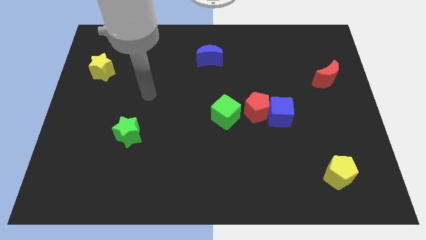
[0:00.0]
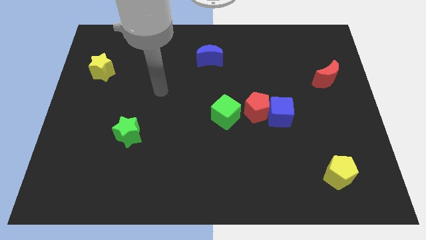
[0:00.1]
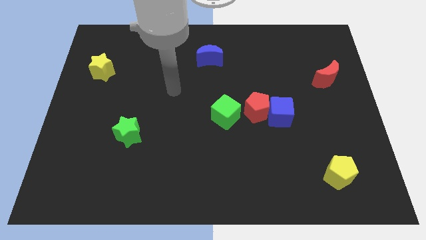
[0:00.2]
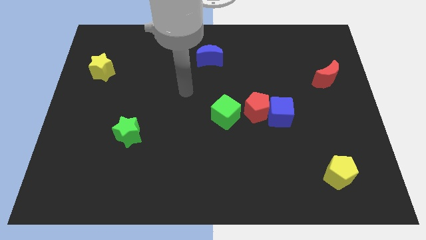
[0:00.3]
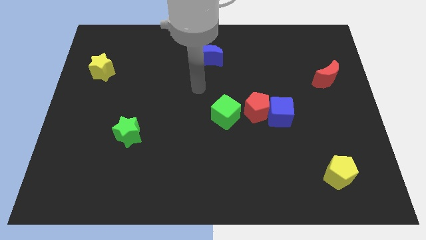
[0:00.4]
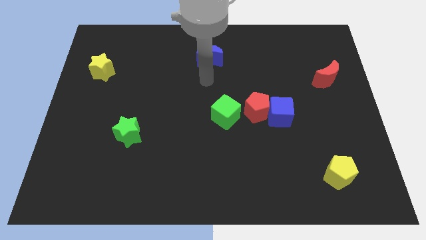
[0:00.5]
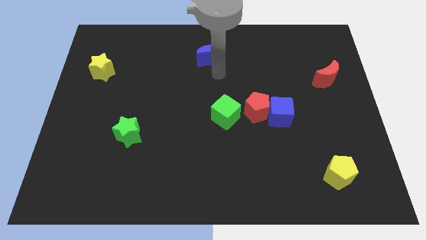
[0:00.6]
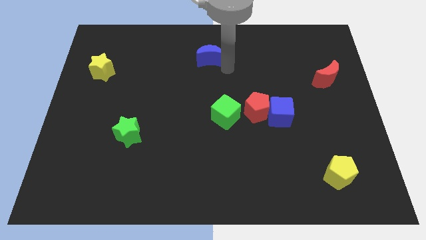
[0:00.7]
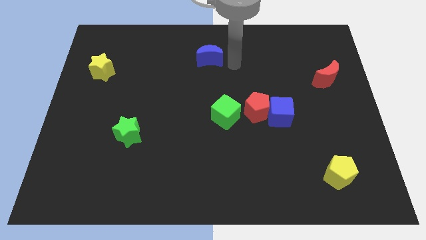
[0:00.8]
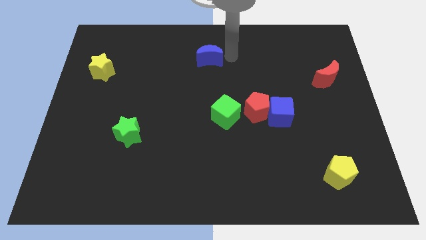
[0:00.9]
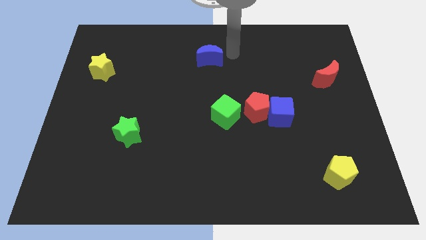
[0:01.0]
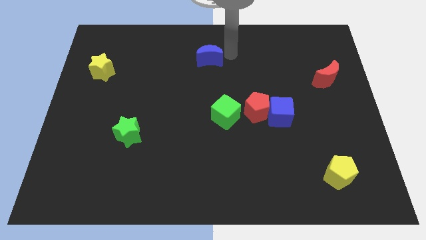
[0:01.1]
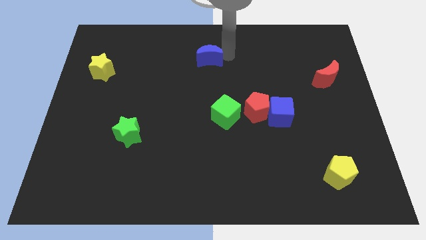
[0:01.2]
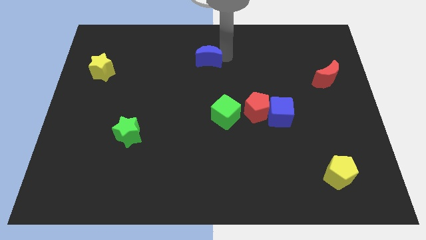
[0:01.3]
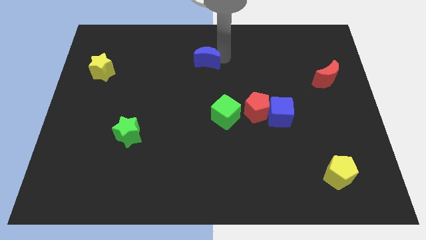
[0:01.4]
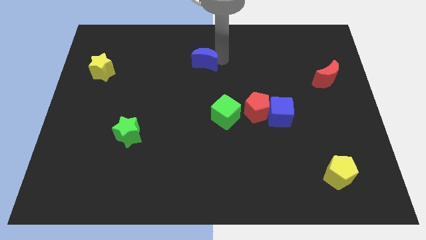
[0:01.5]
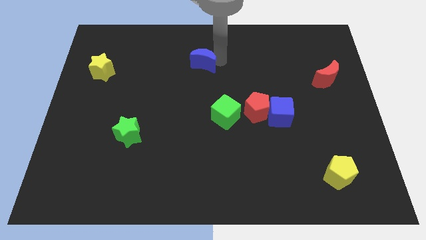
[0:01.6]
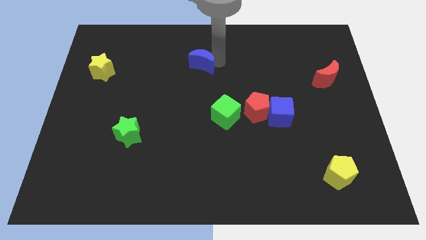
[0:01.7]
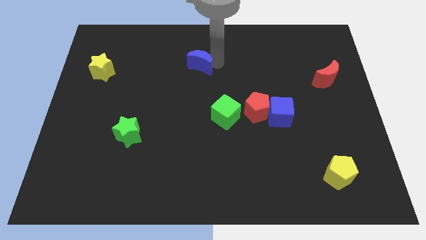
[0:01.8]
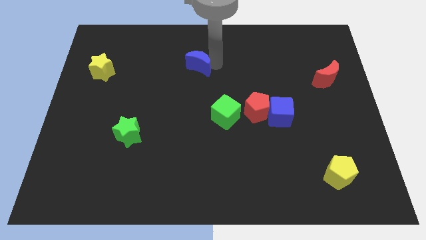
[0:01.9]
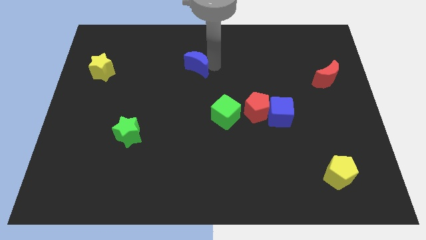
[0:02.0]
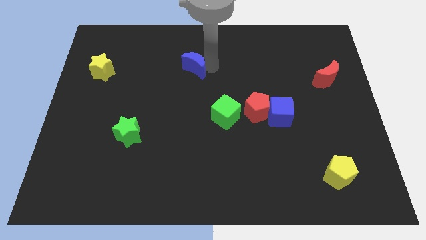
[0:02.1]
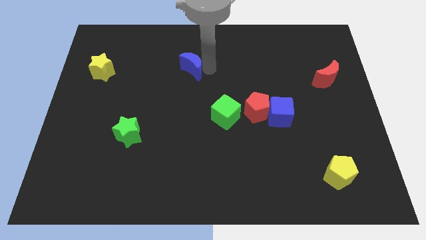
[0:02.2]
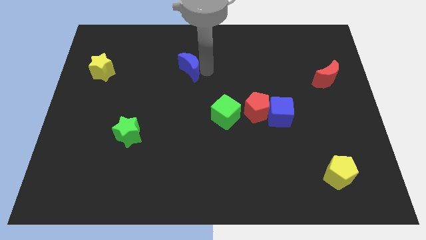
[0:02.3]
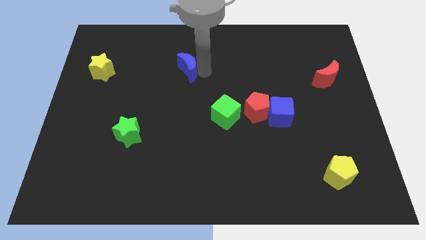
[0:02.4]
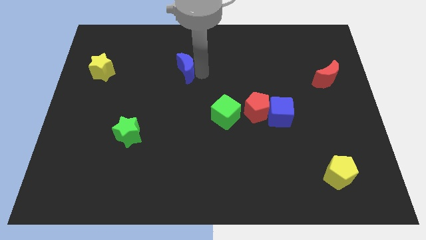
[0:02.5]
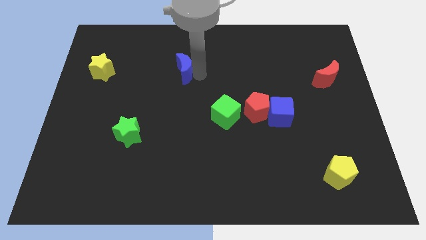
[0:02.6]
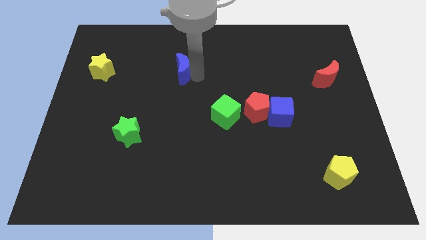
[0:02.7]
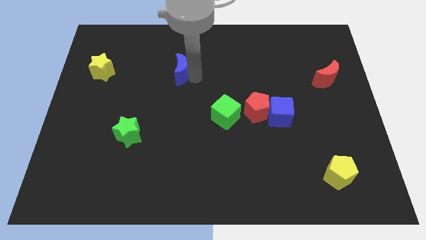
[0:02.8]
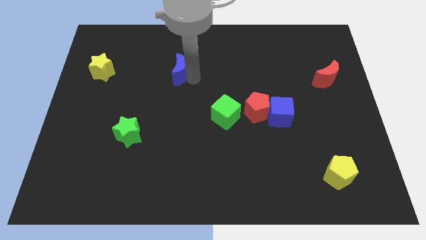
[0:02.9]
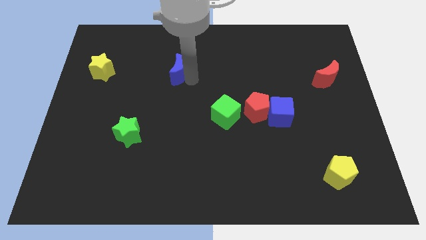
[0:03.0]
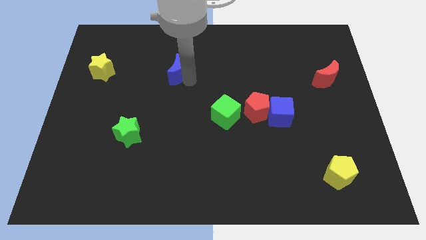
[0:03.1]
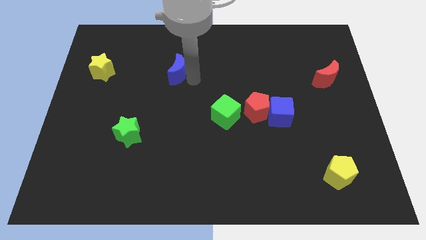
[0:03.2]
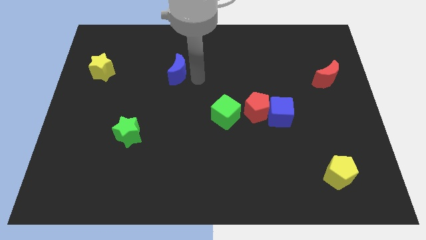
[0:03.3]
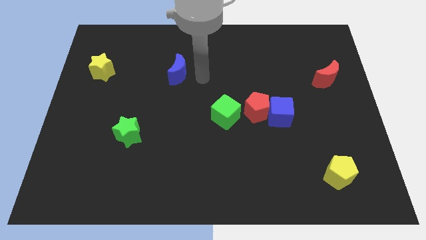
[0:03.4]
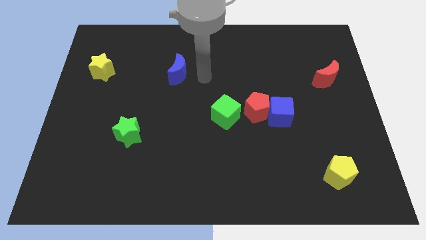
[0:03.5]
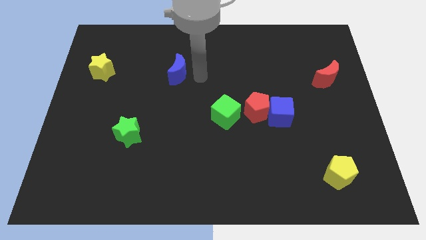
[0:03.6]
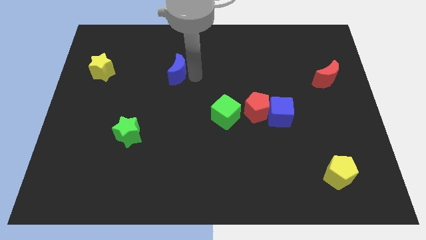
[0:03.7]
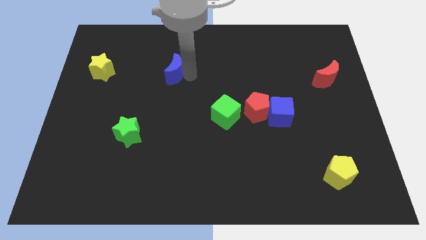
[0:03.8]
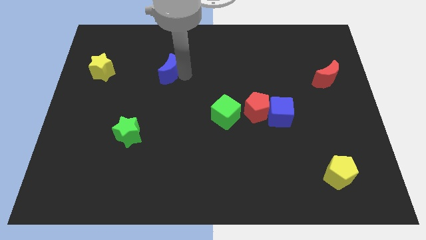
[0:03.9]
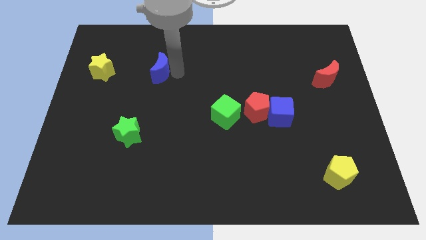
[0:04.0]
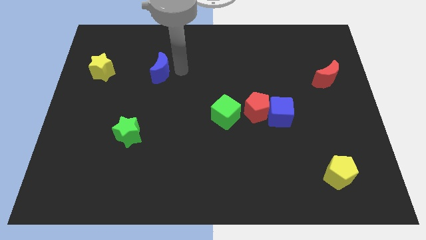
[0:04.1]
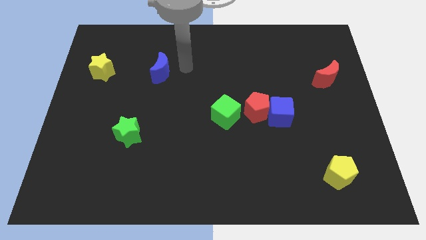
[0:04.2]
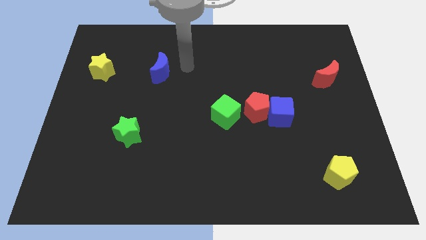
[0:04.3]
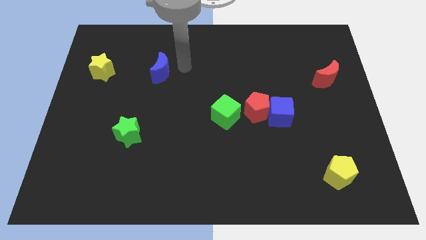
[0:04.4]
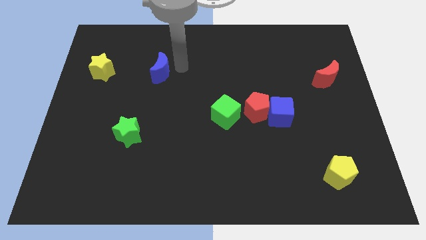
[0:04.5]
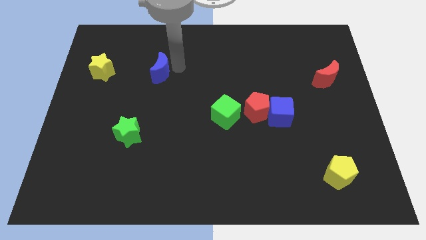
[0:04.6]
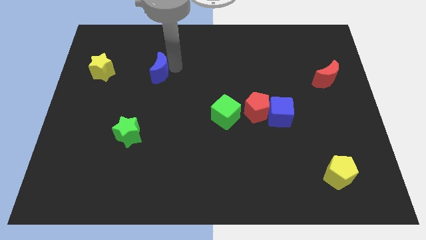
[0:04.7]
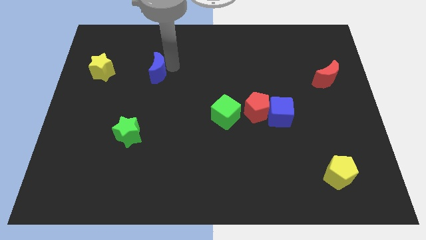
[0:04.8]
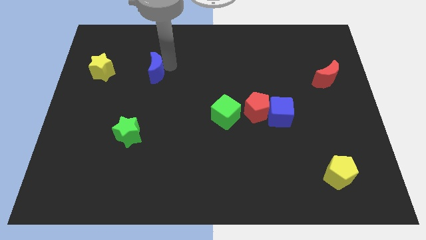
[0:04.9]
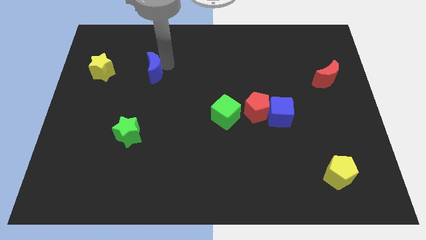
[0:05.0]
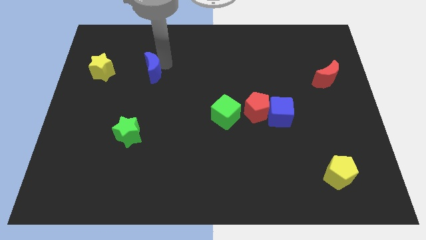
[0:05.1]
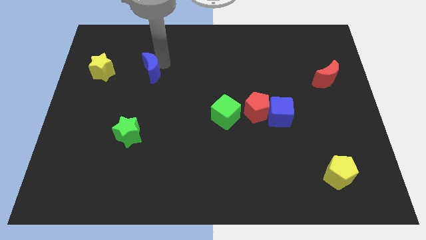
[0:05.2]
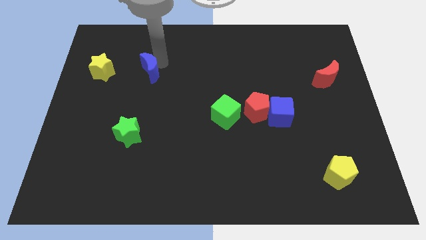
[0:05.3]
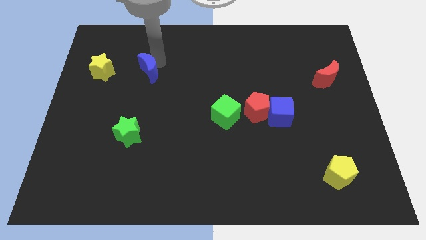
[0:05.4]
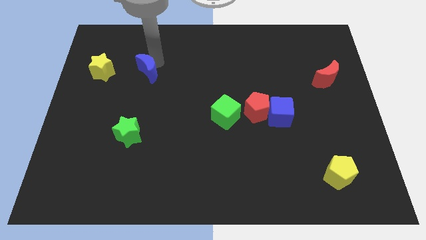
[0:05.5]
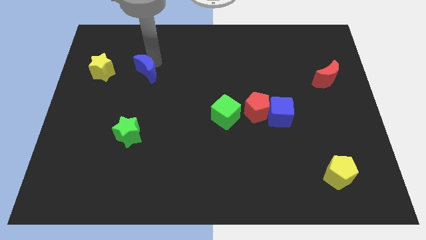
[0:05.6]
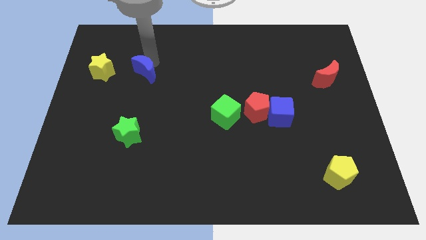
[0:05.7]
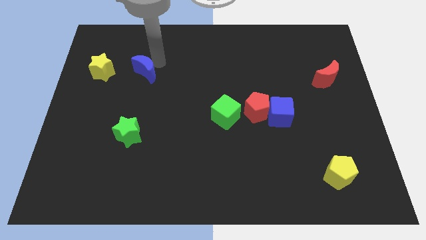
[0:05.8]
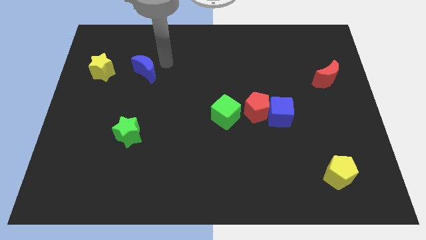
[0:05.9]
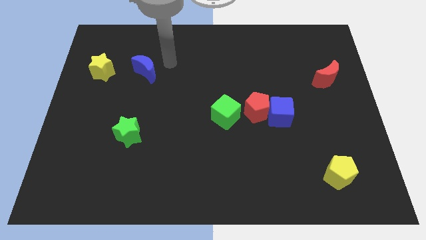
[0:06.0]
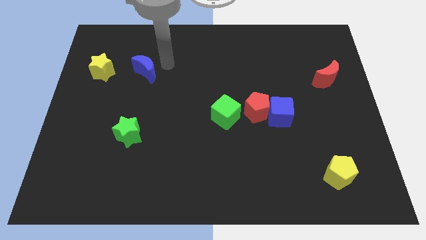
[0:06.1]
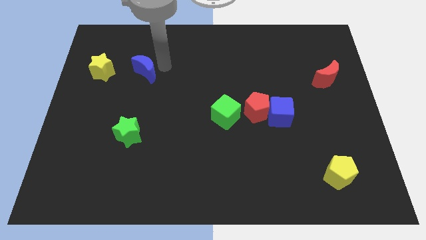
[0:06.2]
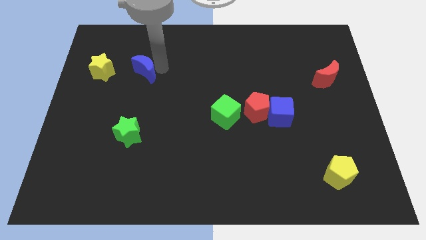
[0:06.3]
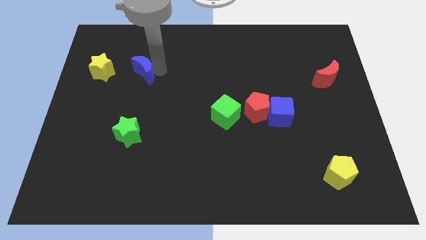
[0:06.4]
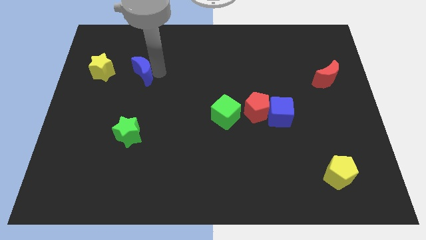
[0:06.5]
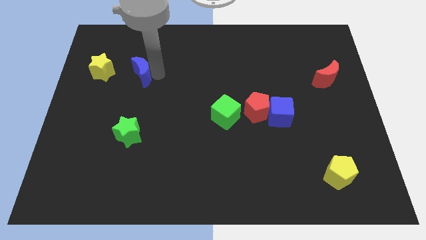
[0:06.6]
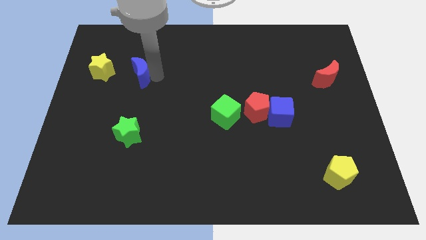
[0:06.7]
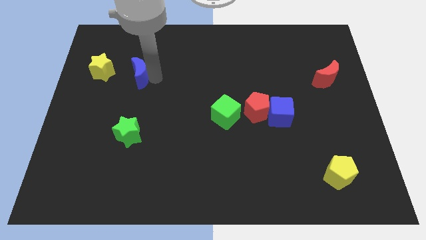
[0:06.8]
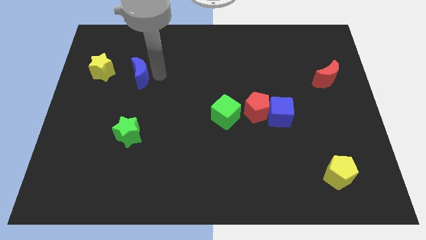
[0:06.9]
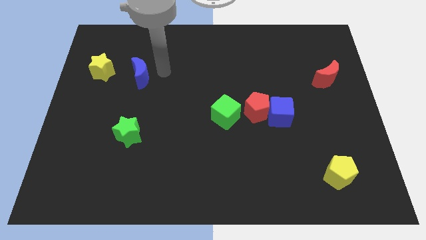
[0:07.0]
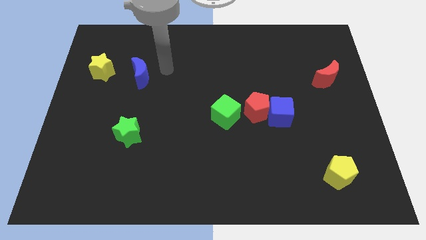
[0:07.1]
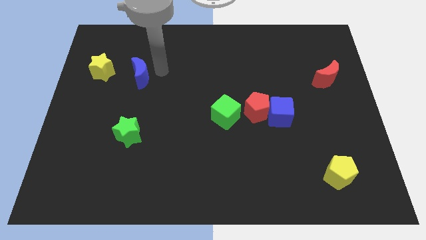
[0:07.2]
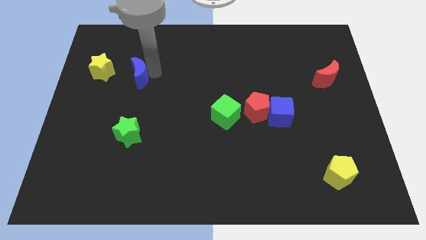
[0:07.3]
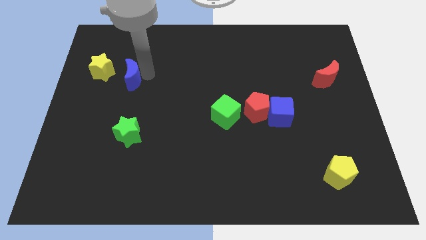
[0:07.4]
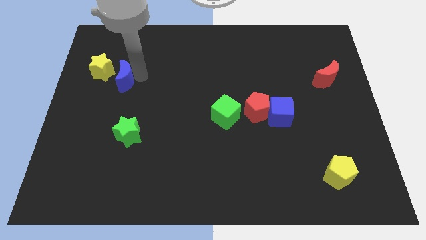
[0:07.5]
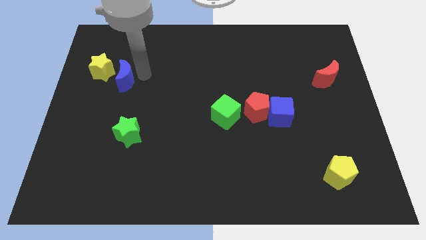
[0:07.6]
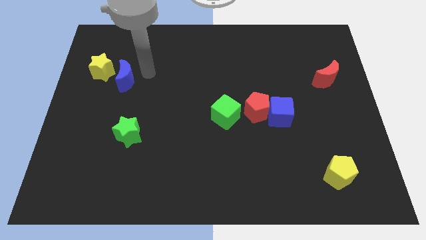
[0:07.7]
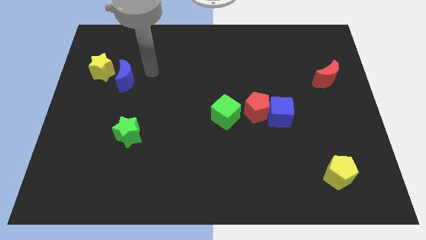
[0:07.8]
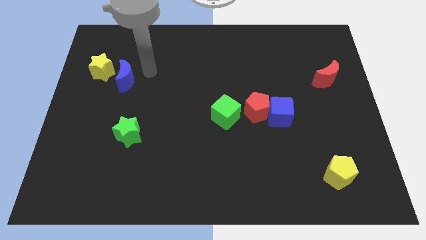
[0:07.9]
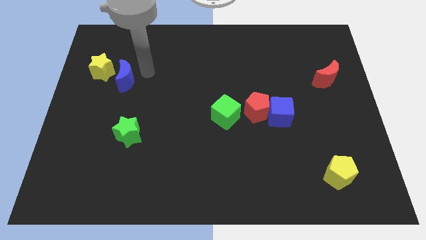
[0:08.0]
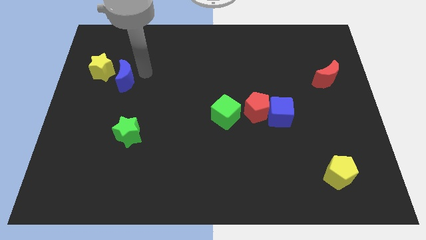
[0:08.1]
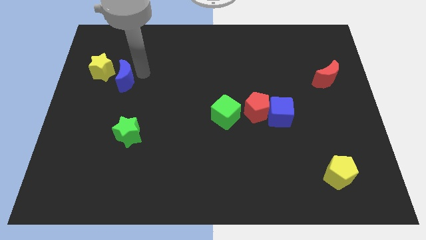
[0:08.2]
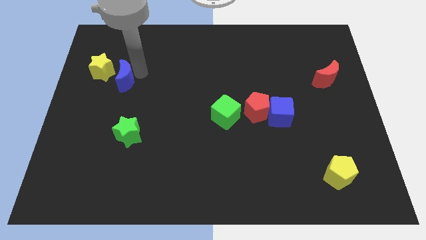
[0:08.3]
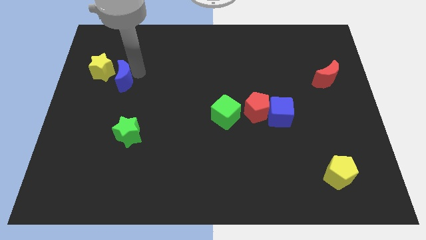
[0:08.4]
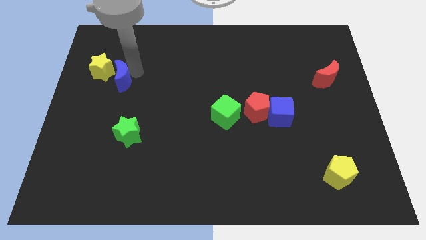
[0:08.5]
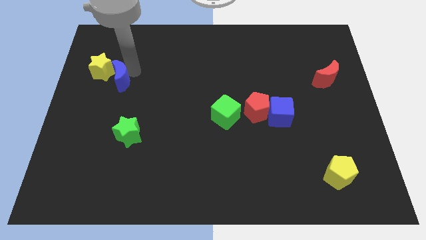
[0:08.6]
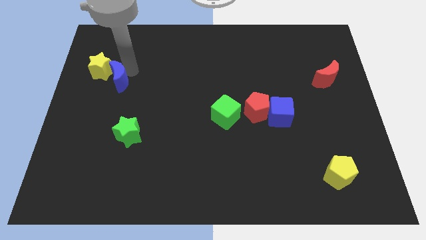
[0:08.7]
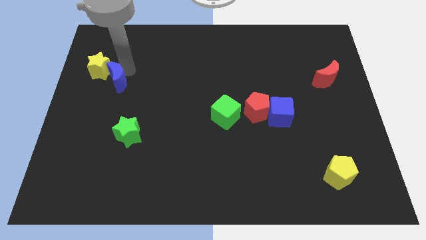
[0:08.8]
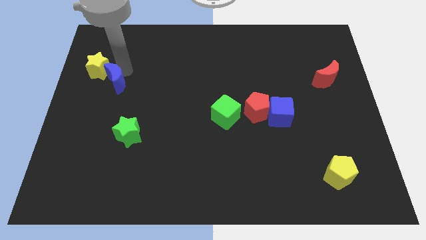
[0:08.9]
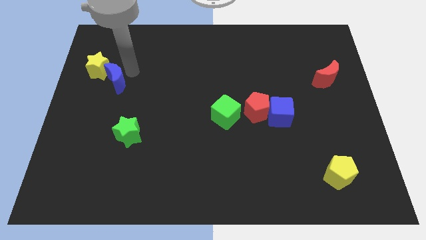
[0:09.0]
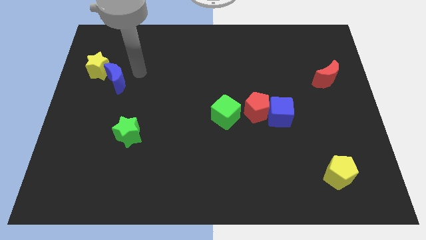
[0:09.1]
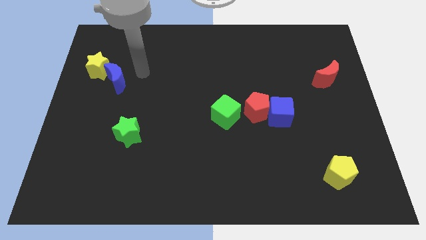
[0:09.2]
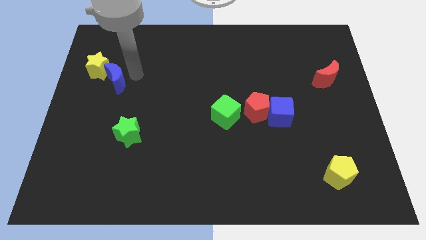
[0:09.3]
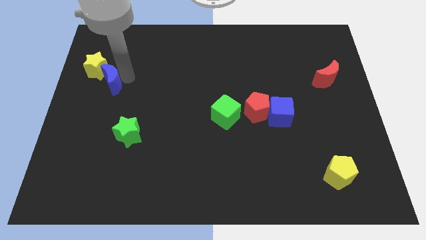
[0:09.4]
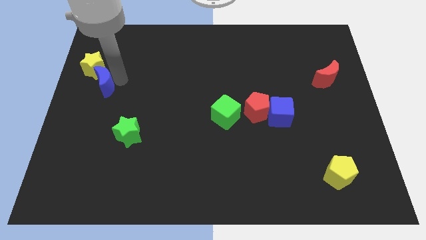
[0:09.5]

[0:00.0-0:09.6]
push the blue moon to the center left
